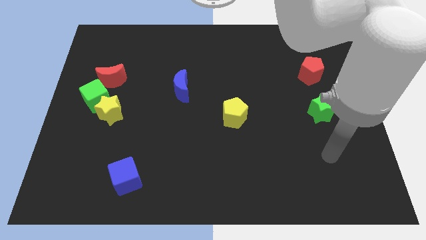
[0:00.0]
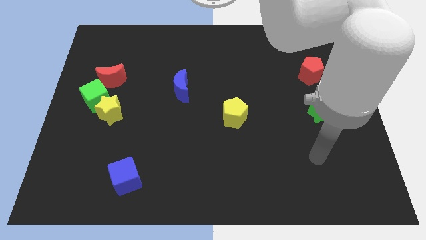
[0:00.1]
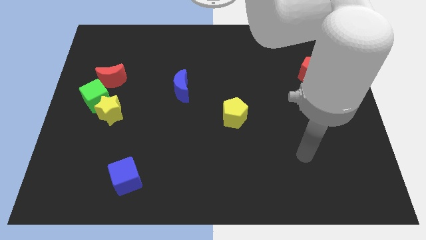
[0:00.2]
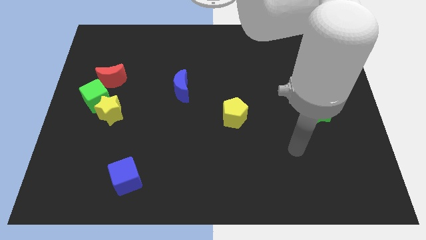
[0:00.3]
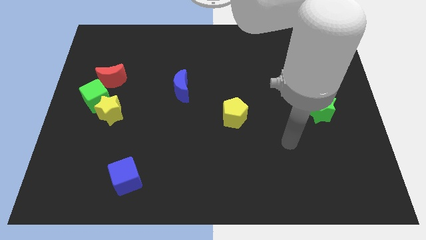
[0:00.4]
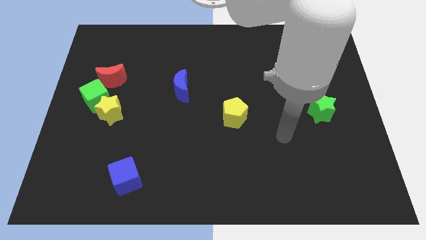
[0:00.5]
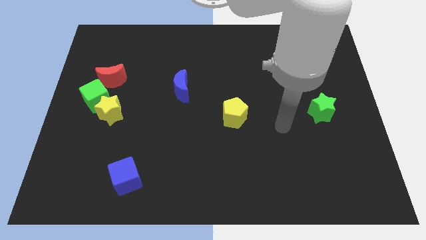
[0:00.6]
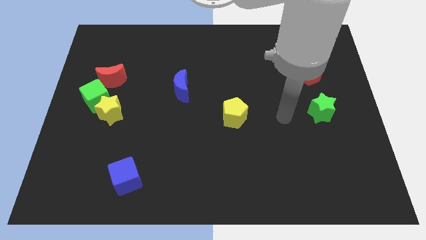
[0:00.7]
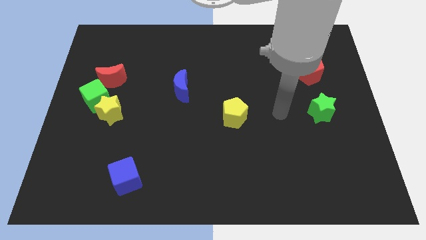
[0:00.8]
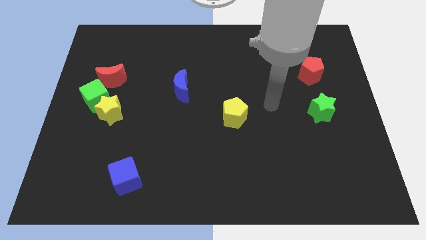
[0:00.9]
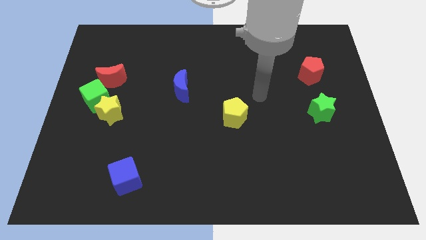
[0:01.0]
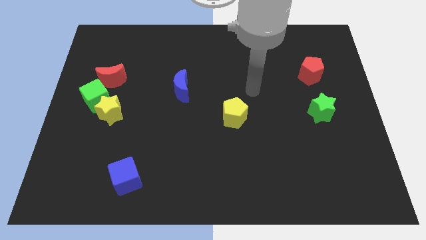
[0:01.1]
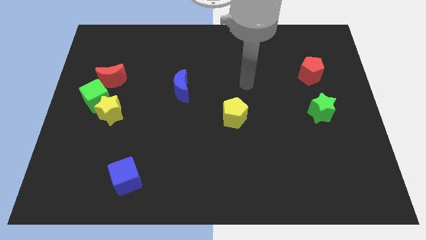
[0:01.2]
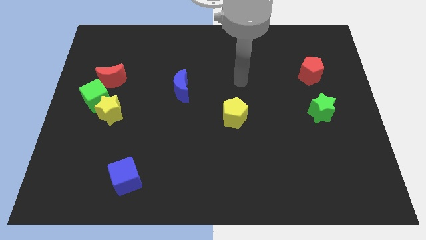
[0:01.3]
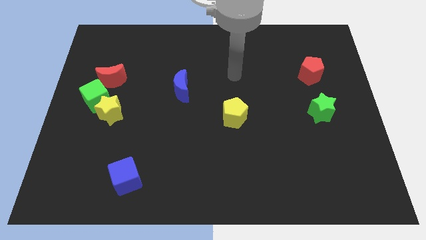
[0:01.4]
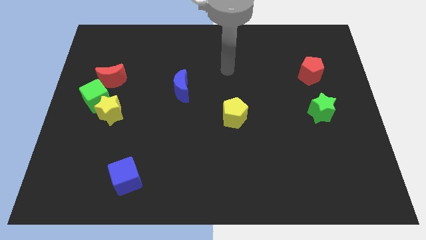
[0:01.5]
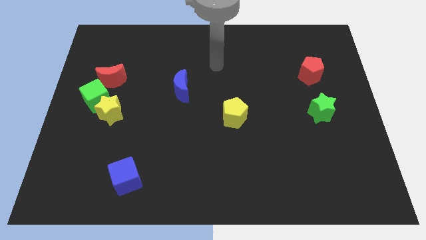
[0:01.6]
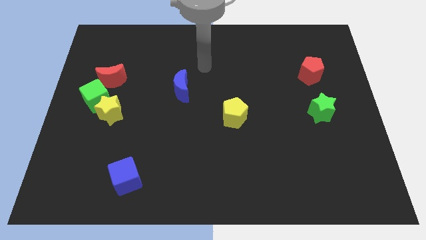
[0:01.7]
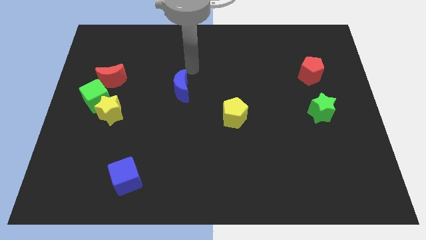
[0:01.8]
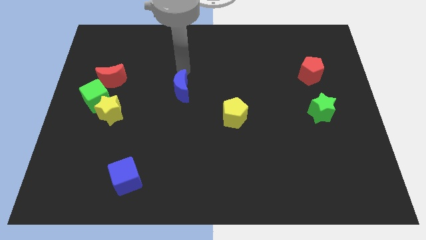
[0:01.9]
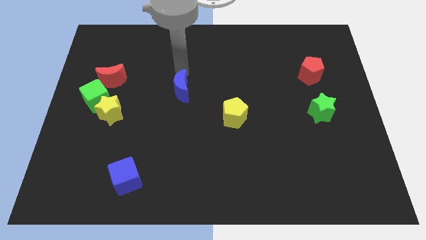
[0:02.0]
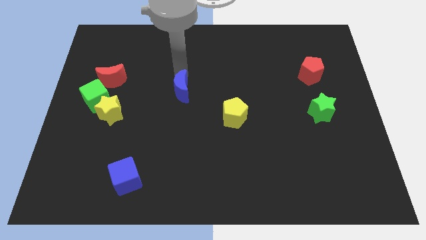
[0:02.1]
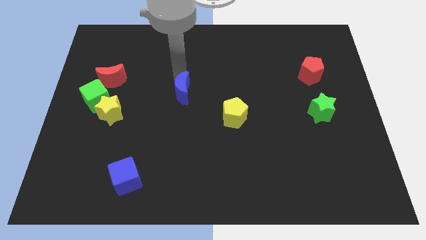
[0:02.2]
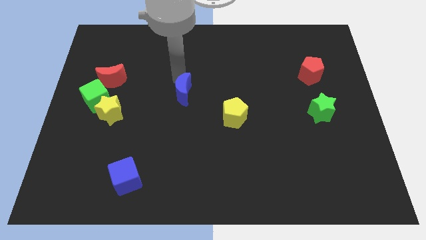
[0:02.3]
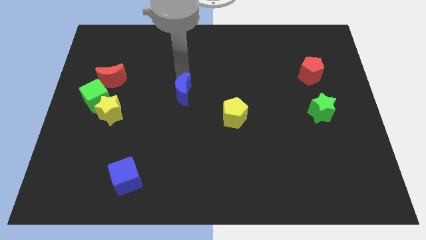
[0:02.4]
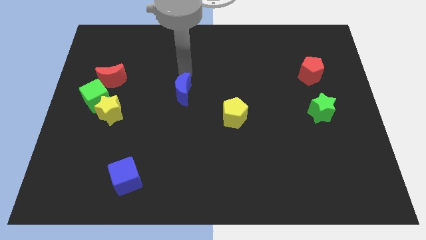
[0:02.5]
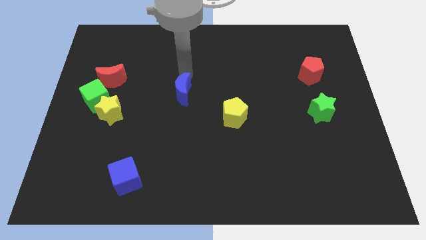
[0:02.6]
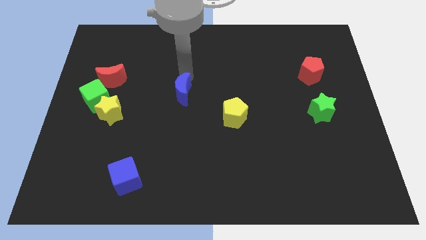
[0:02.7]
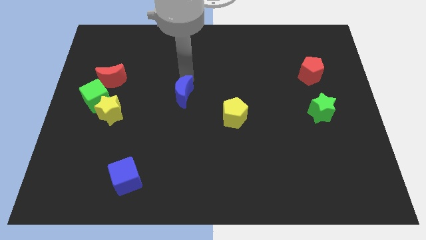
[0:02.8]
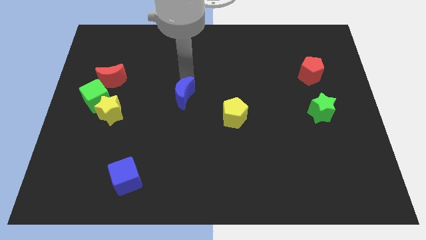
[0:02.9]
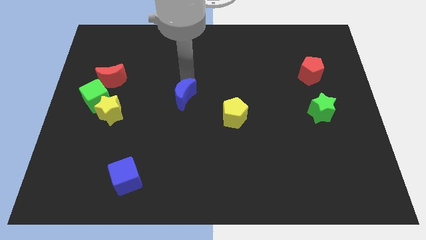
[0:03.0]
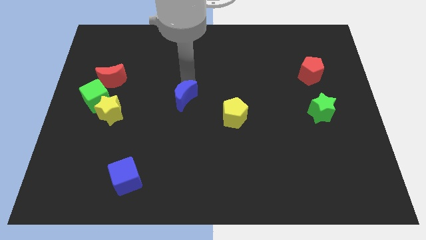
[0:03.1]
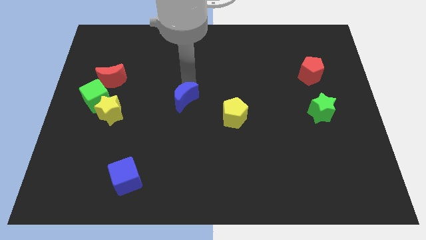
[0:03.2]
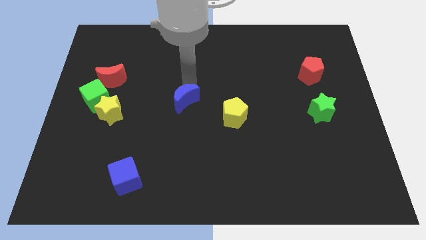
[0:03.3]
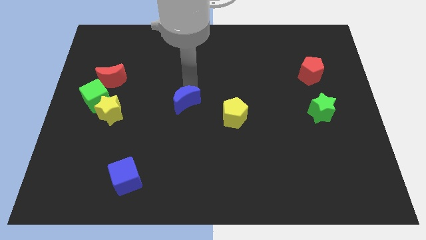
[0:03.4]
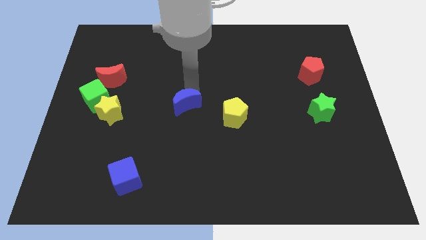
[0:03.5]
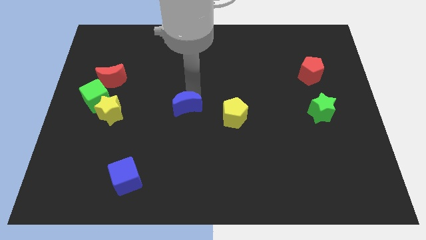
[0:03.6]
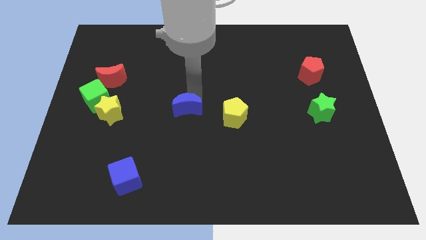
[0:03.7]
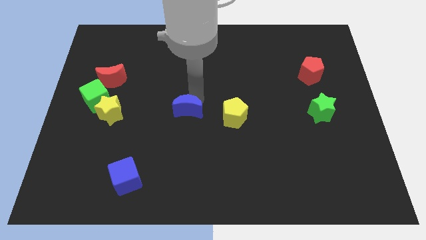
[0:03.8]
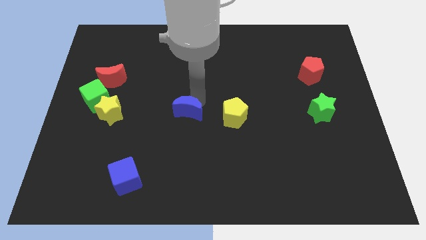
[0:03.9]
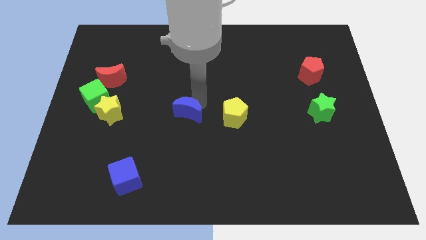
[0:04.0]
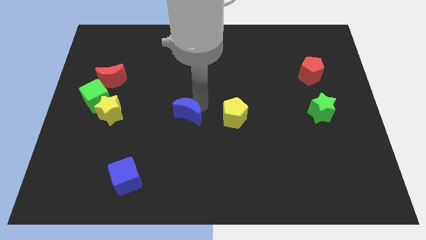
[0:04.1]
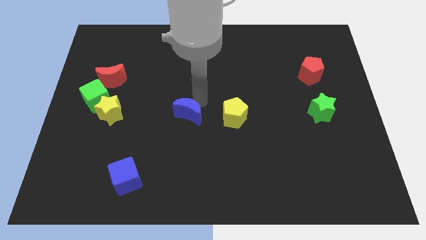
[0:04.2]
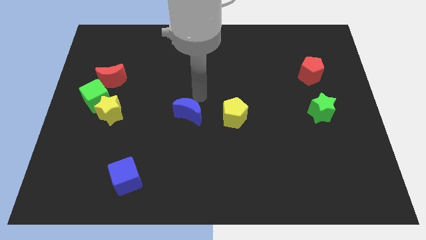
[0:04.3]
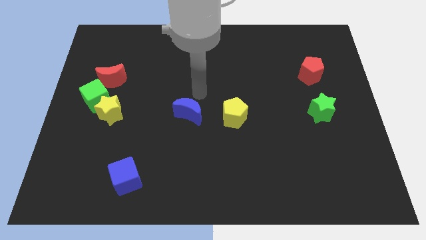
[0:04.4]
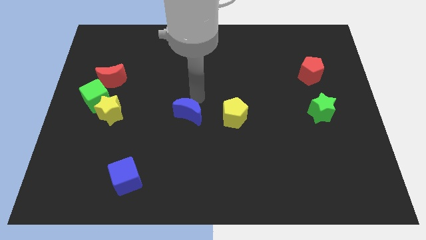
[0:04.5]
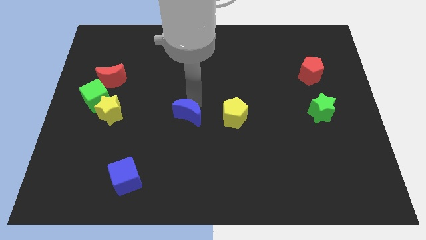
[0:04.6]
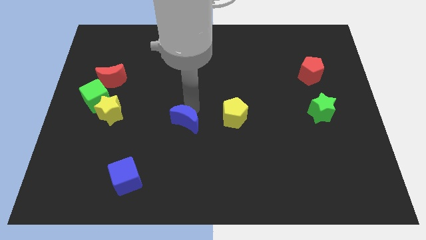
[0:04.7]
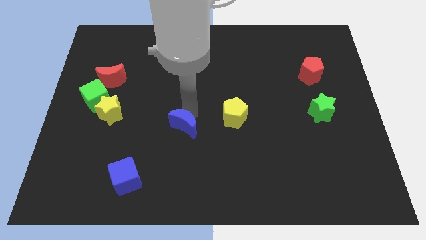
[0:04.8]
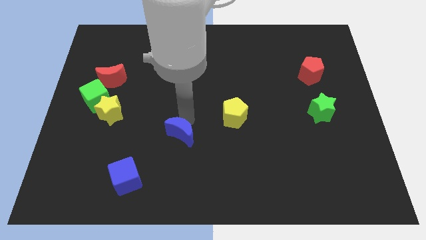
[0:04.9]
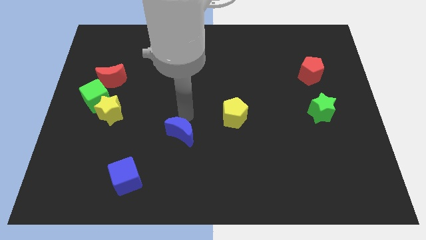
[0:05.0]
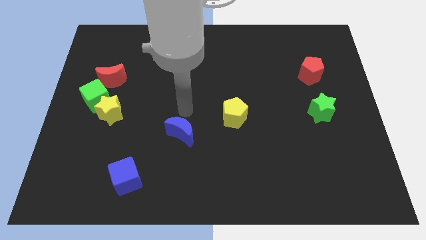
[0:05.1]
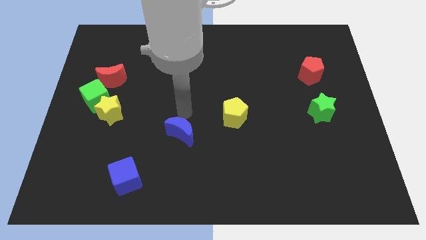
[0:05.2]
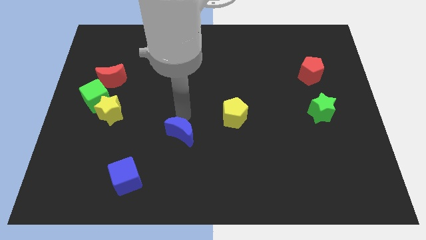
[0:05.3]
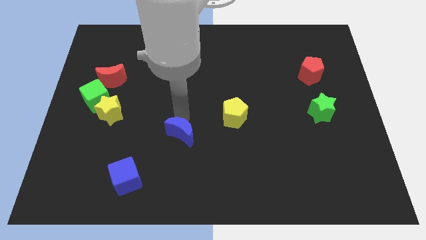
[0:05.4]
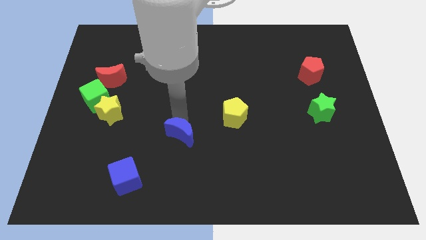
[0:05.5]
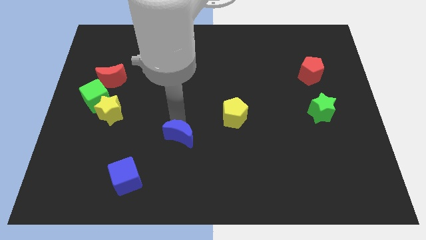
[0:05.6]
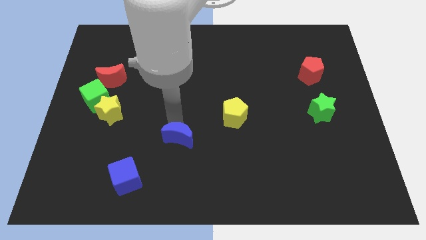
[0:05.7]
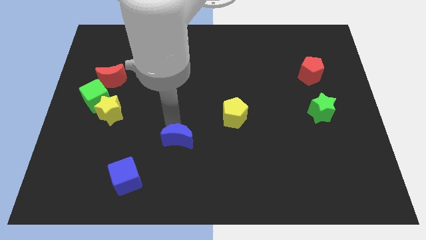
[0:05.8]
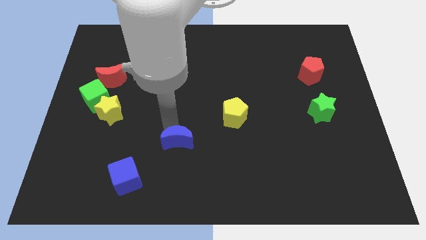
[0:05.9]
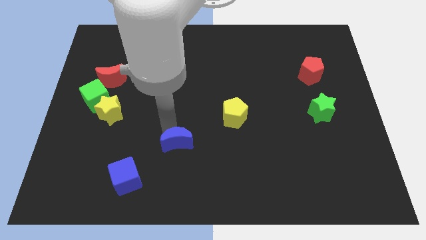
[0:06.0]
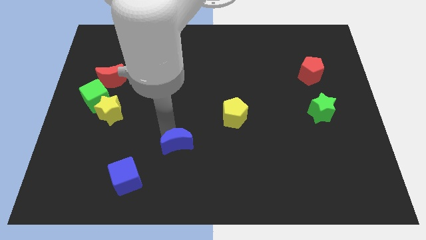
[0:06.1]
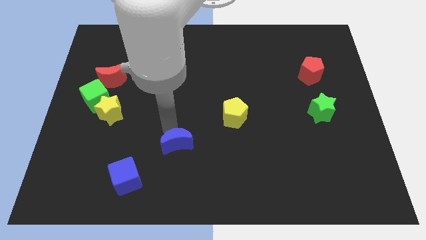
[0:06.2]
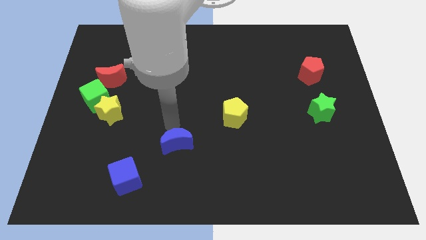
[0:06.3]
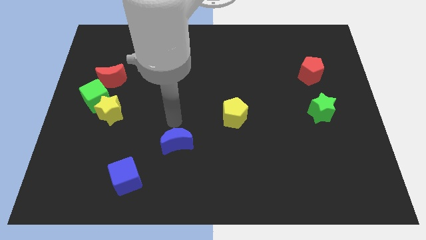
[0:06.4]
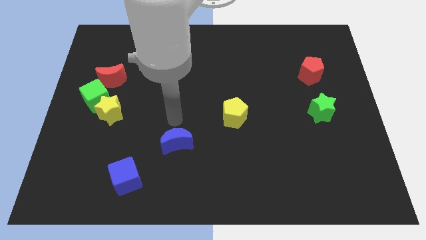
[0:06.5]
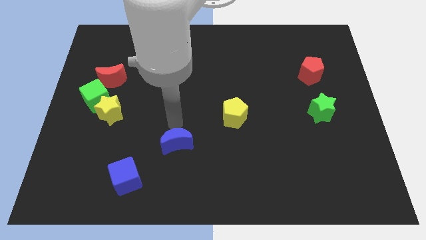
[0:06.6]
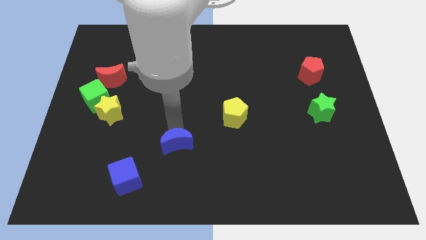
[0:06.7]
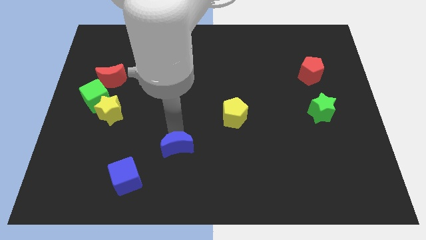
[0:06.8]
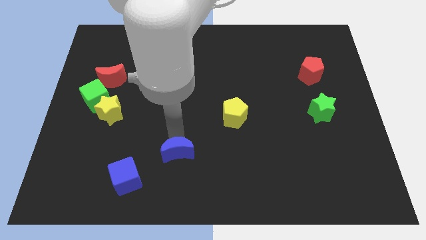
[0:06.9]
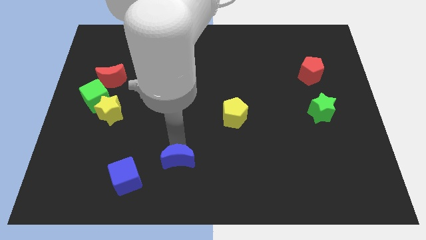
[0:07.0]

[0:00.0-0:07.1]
push the blue moon to the right side of the blue cube

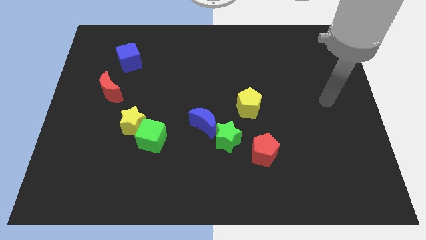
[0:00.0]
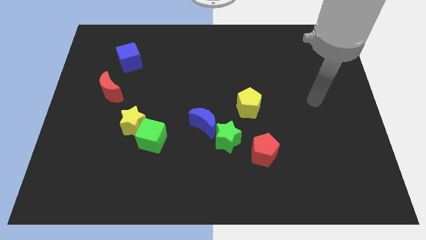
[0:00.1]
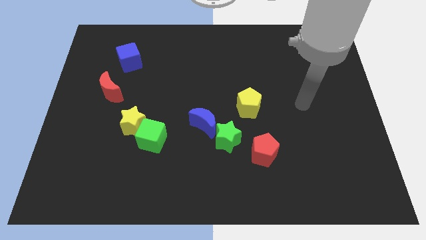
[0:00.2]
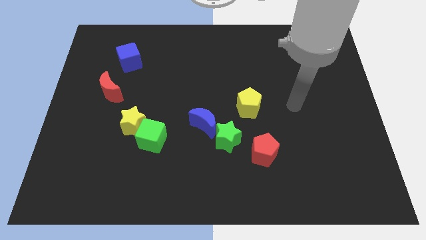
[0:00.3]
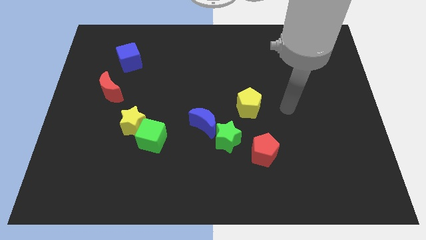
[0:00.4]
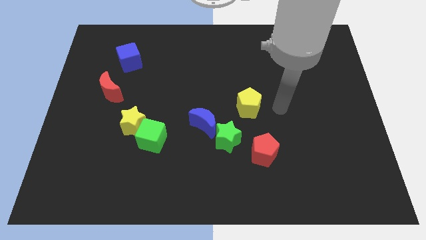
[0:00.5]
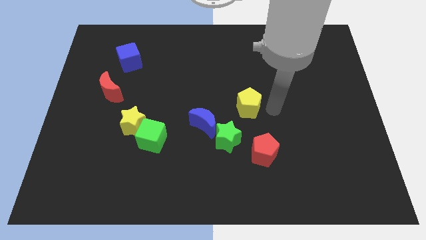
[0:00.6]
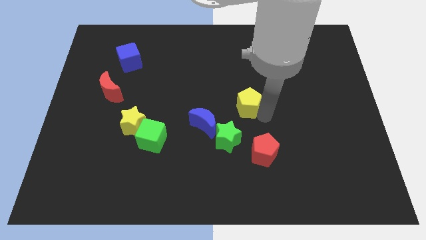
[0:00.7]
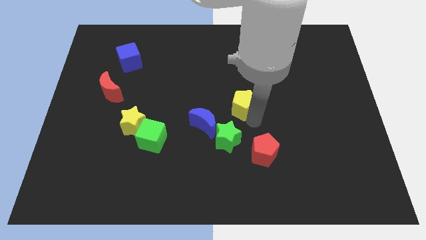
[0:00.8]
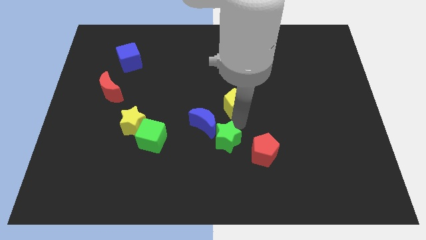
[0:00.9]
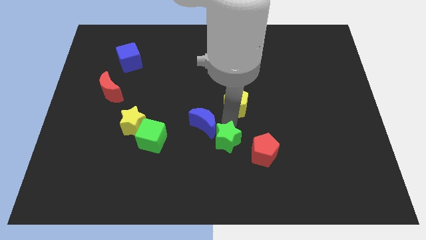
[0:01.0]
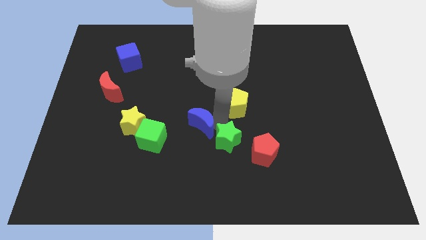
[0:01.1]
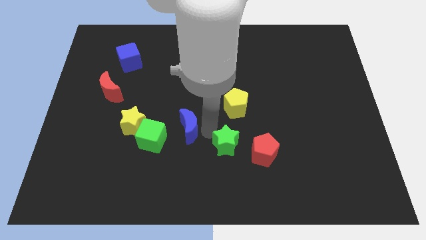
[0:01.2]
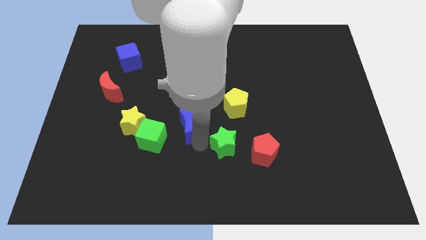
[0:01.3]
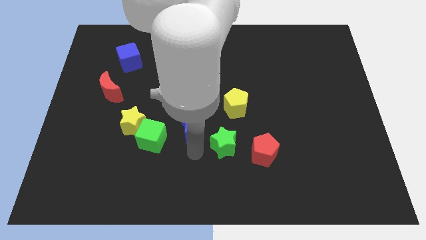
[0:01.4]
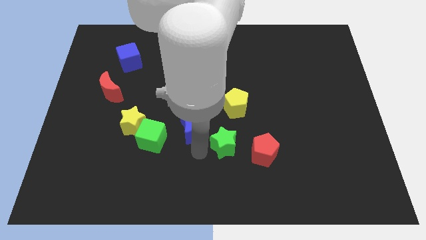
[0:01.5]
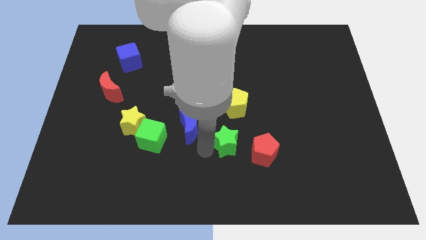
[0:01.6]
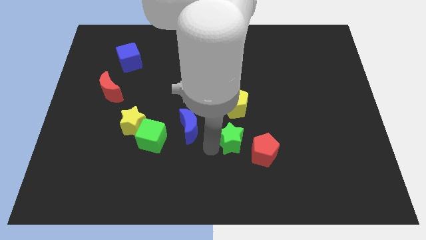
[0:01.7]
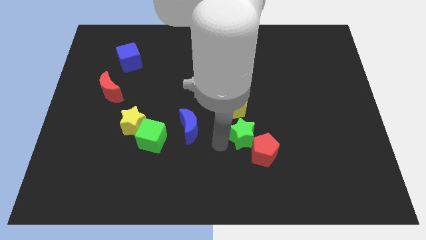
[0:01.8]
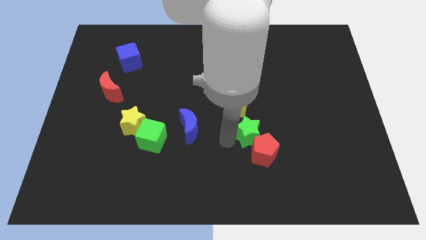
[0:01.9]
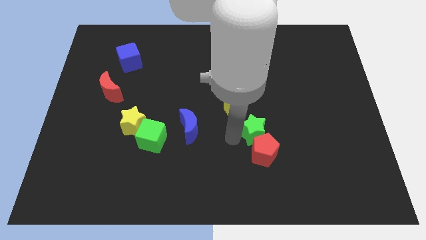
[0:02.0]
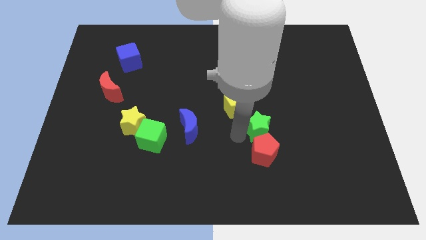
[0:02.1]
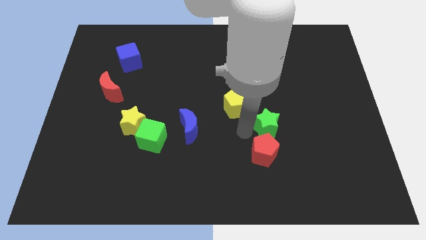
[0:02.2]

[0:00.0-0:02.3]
push the green star diagonally up and to the right of the red pentagon
